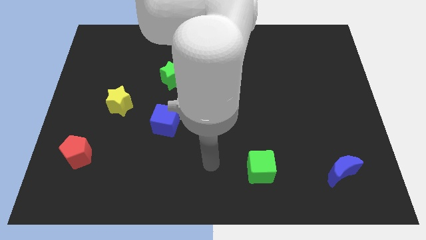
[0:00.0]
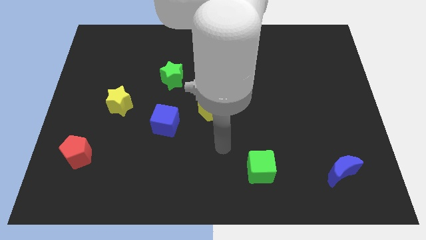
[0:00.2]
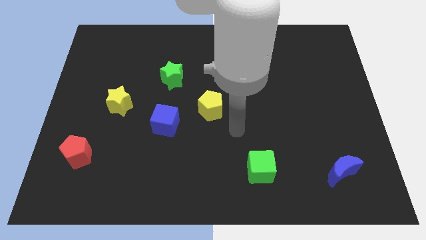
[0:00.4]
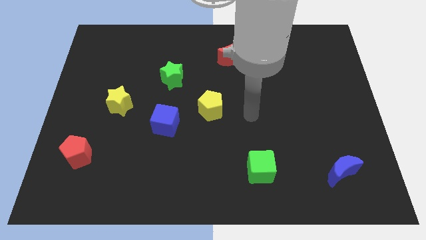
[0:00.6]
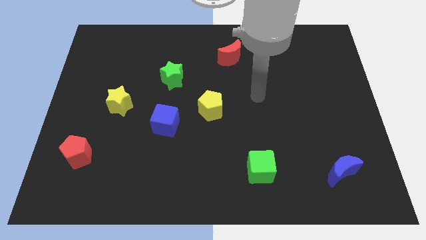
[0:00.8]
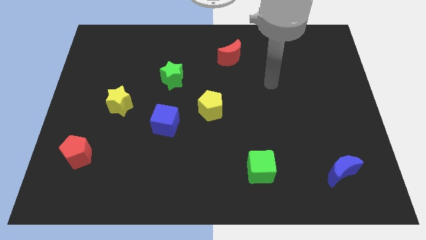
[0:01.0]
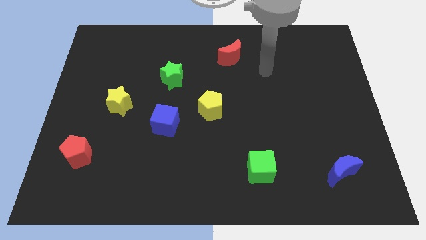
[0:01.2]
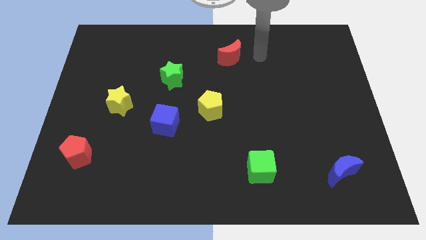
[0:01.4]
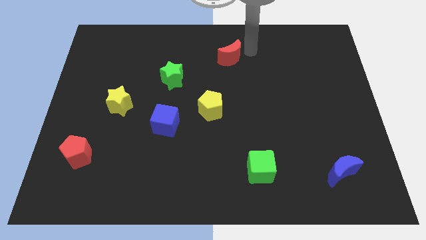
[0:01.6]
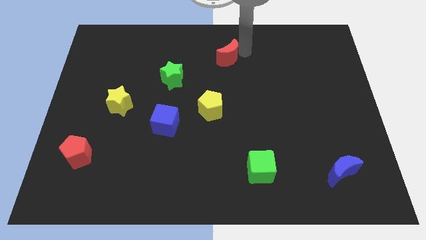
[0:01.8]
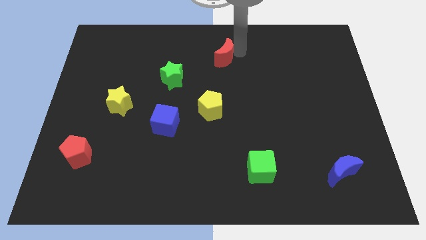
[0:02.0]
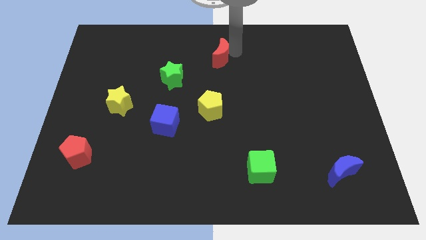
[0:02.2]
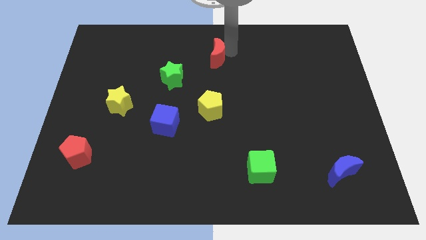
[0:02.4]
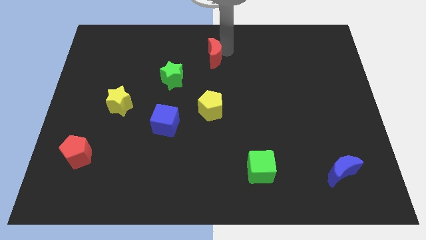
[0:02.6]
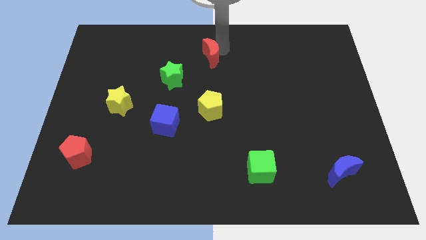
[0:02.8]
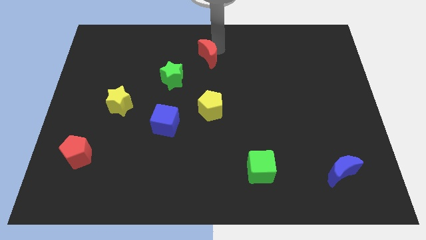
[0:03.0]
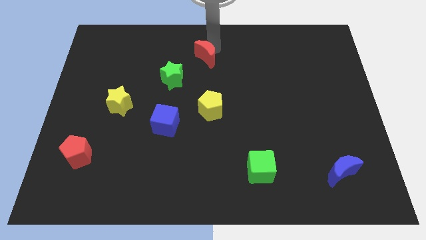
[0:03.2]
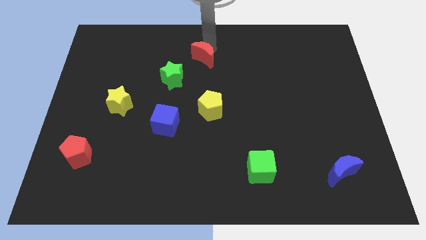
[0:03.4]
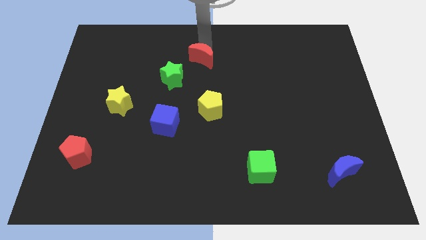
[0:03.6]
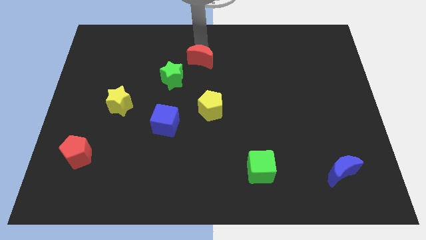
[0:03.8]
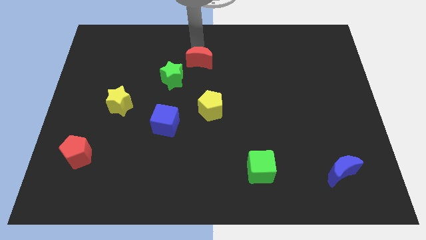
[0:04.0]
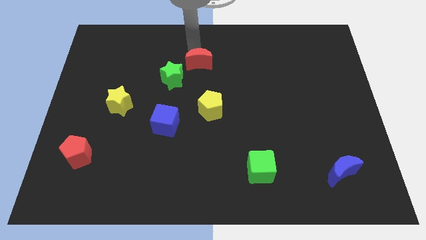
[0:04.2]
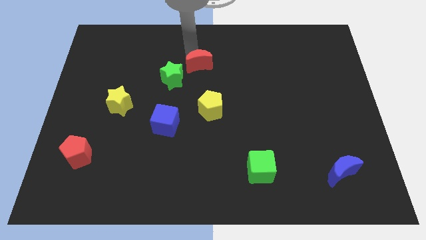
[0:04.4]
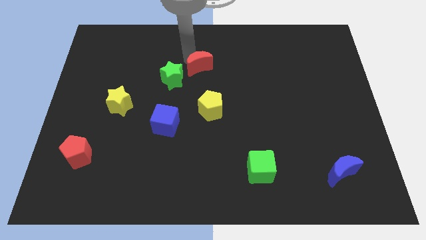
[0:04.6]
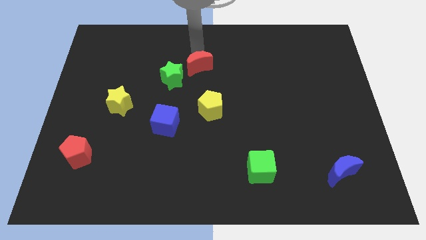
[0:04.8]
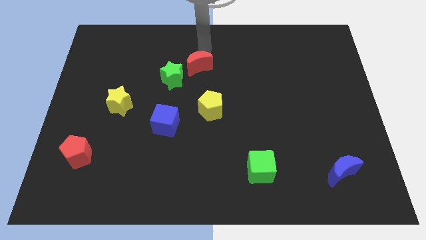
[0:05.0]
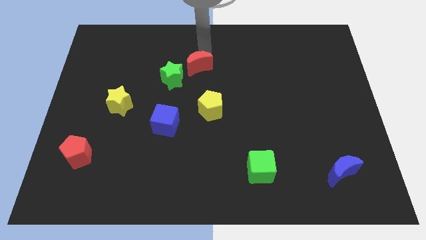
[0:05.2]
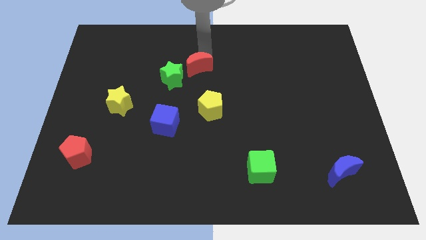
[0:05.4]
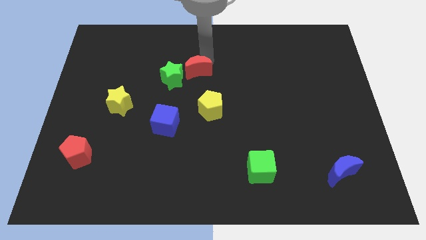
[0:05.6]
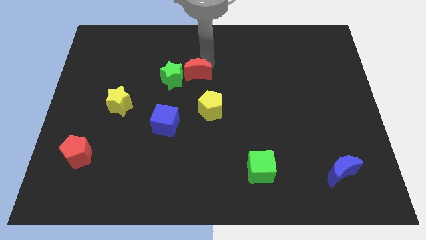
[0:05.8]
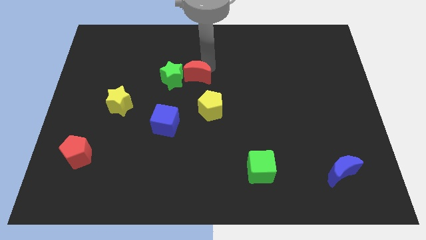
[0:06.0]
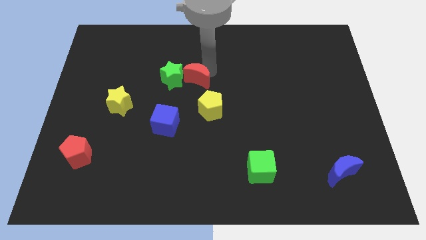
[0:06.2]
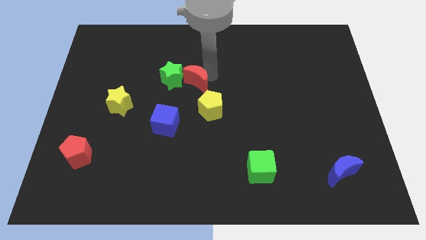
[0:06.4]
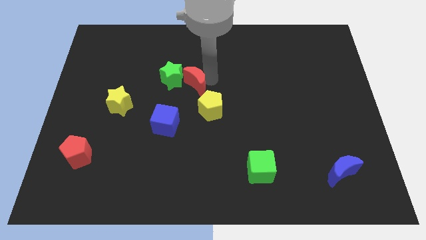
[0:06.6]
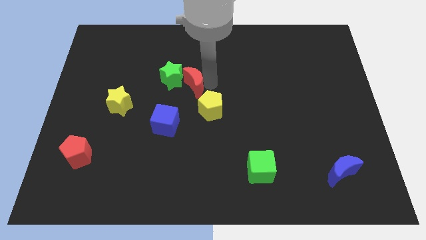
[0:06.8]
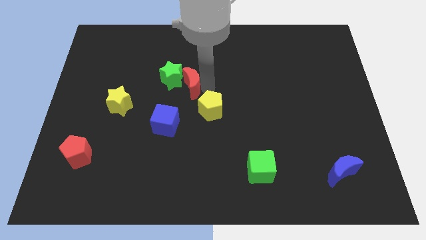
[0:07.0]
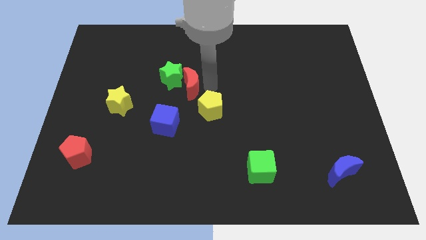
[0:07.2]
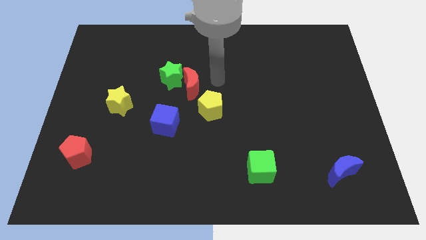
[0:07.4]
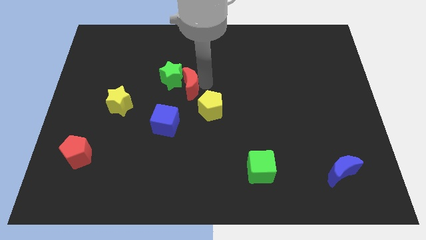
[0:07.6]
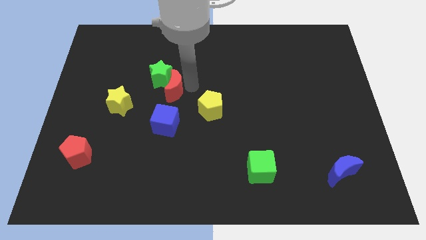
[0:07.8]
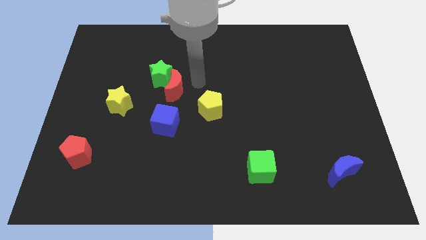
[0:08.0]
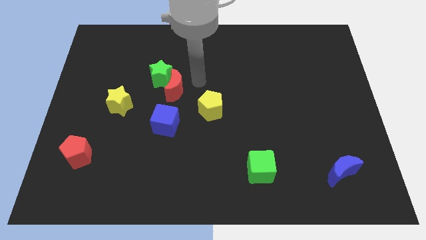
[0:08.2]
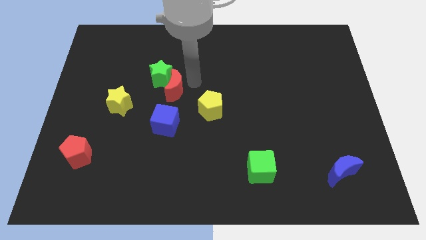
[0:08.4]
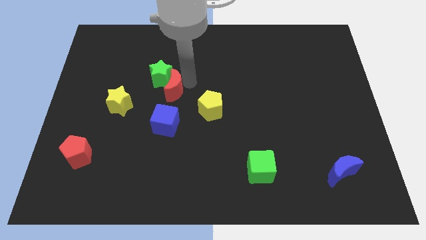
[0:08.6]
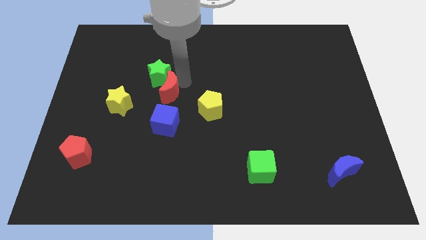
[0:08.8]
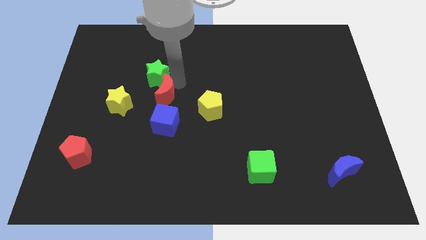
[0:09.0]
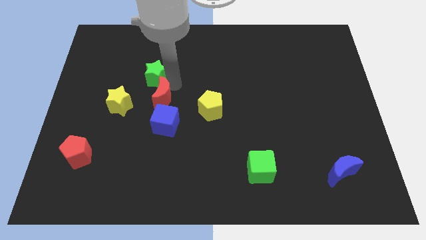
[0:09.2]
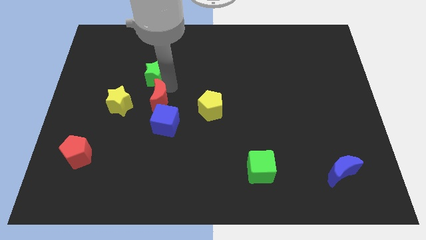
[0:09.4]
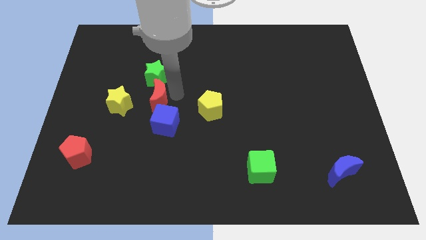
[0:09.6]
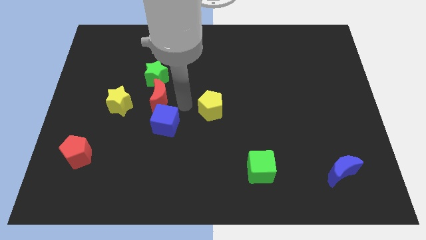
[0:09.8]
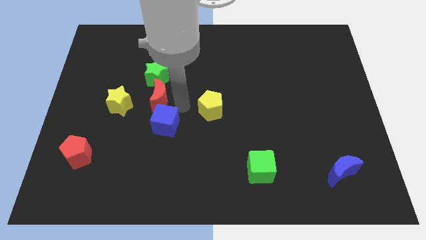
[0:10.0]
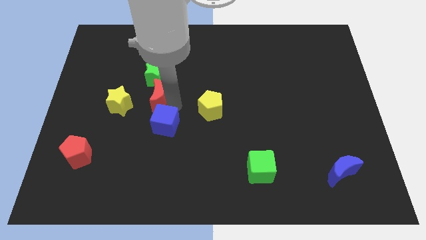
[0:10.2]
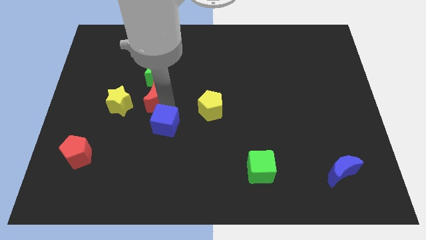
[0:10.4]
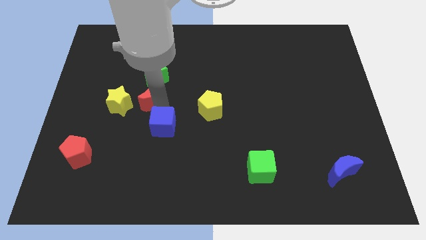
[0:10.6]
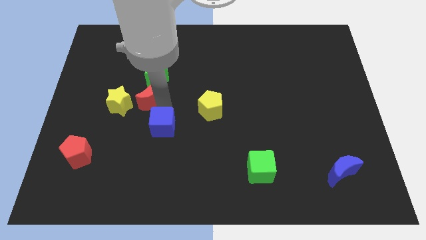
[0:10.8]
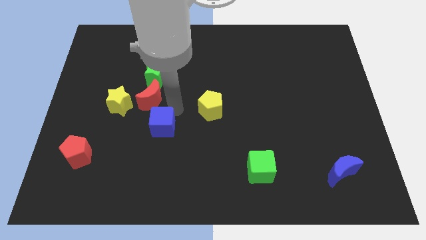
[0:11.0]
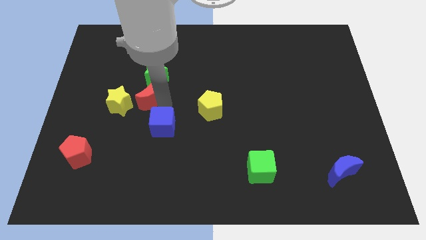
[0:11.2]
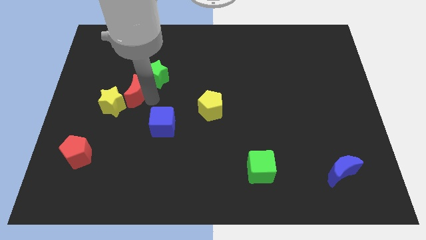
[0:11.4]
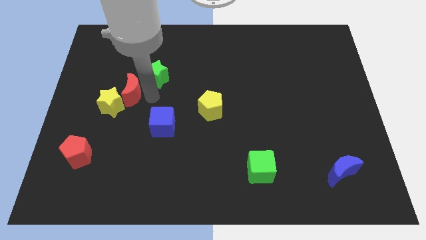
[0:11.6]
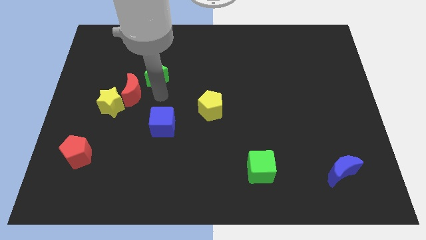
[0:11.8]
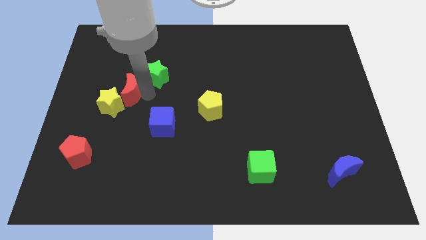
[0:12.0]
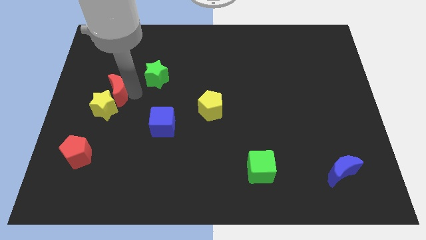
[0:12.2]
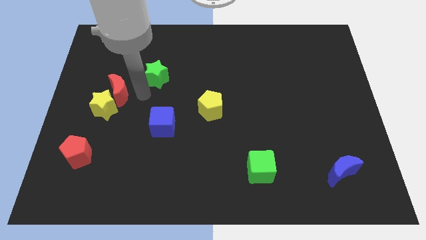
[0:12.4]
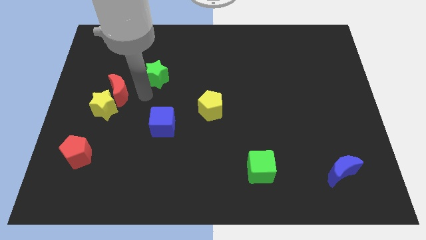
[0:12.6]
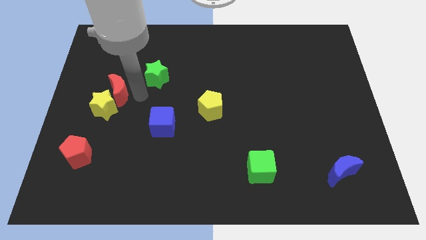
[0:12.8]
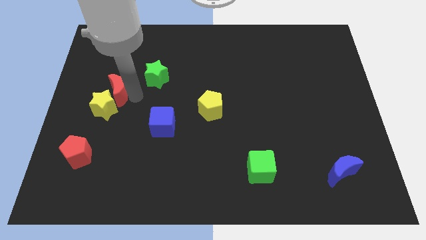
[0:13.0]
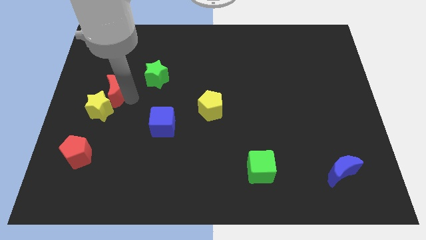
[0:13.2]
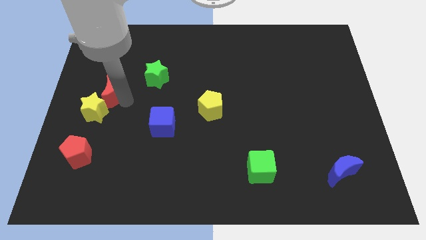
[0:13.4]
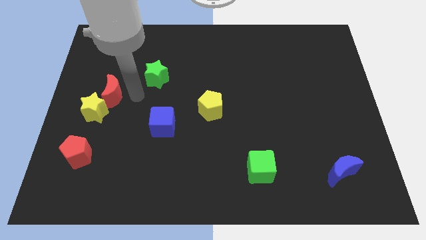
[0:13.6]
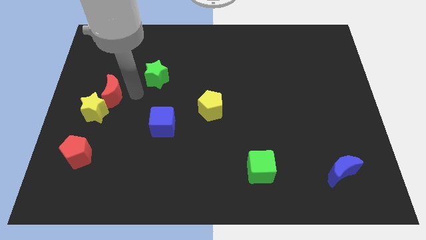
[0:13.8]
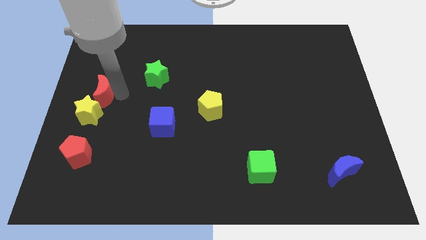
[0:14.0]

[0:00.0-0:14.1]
move the red moon to the left side of the board

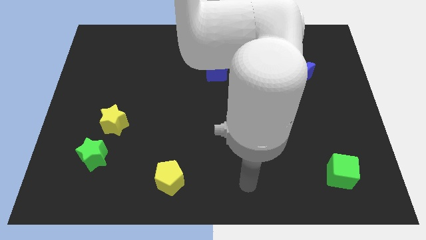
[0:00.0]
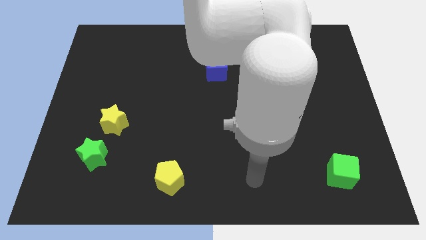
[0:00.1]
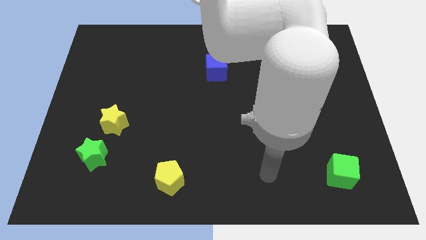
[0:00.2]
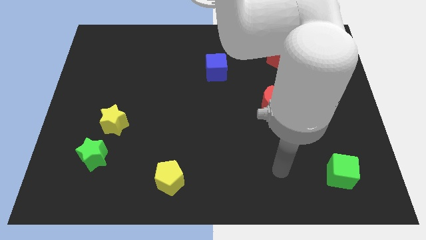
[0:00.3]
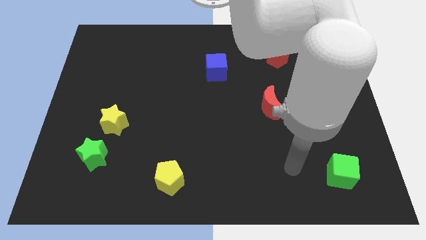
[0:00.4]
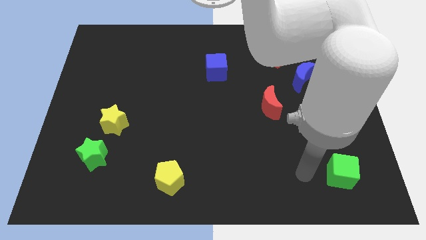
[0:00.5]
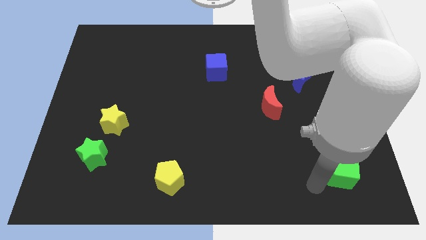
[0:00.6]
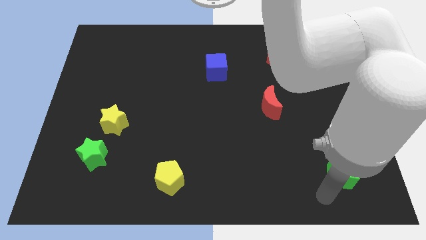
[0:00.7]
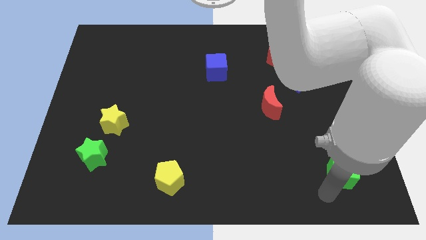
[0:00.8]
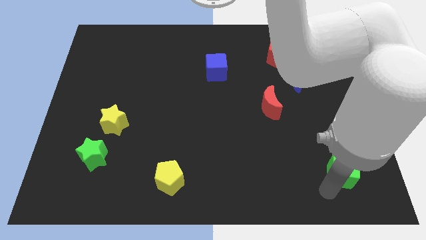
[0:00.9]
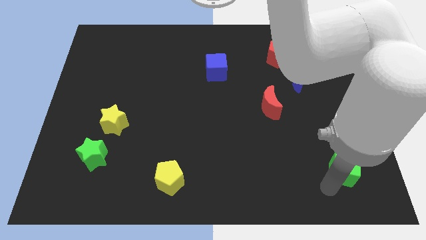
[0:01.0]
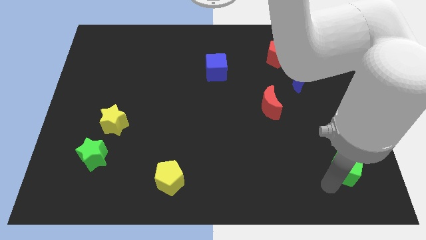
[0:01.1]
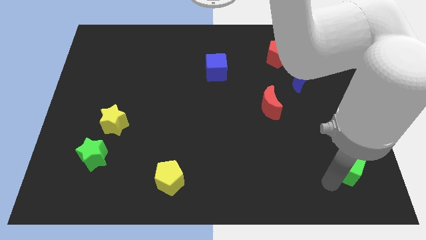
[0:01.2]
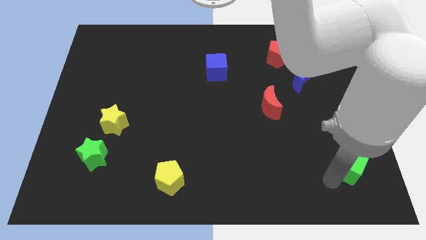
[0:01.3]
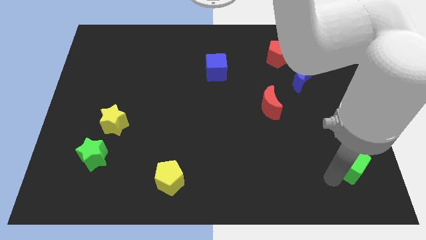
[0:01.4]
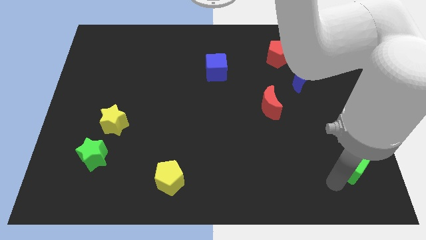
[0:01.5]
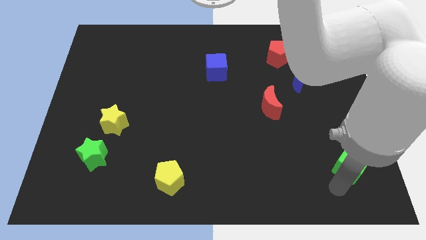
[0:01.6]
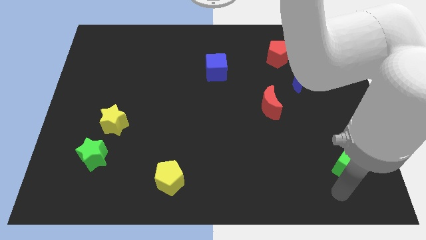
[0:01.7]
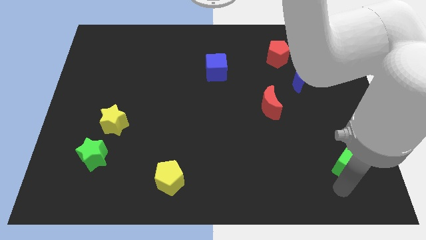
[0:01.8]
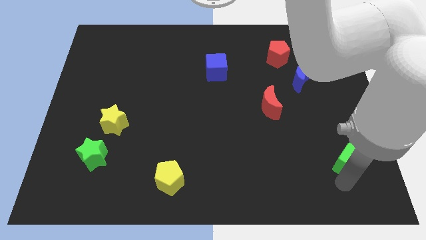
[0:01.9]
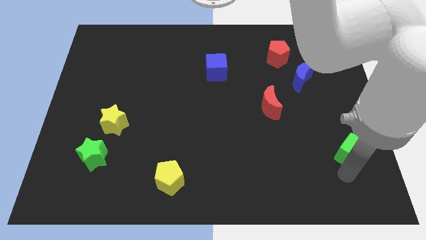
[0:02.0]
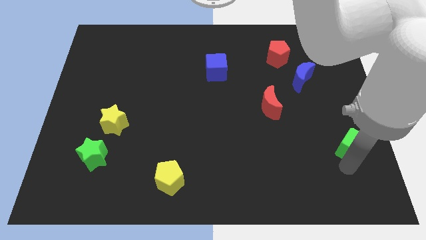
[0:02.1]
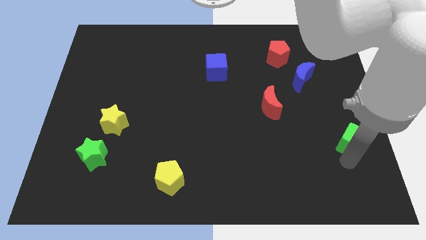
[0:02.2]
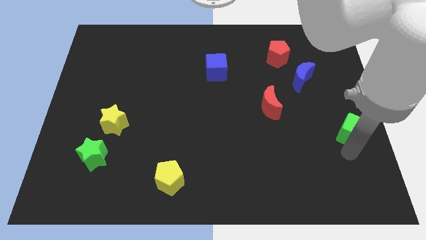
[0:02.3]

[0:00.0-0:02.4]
slide the green cube to the right side of the board
